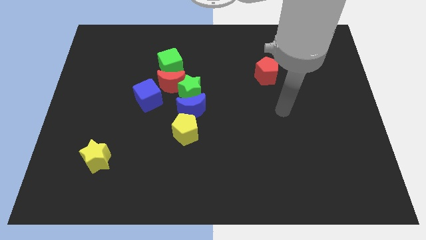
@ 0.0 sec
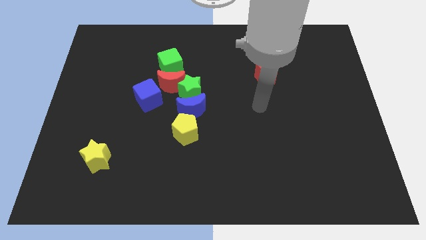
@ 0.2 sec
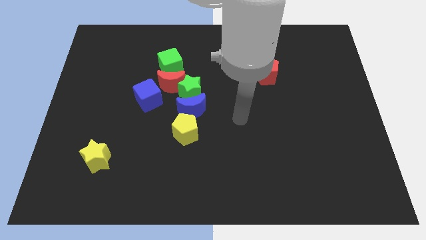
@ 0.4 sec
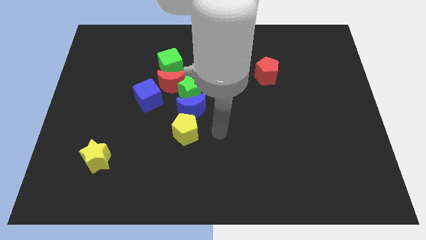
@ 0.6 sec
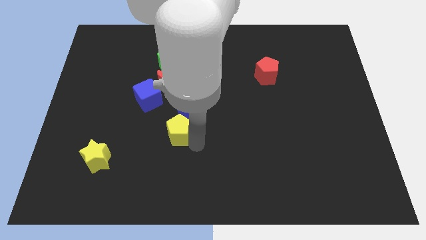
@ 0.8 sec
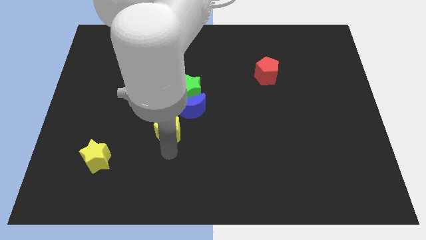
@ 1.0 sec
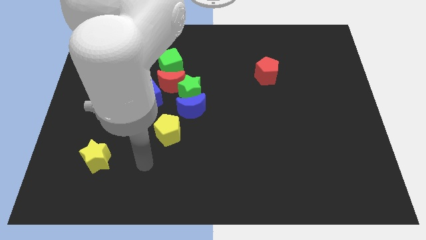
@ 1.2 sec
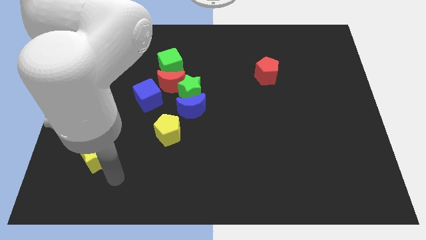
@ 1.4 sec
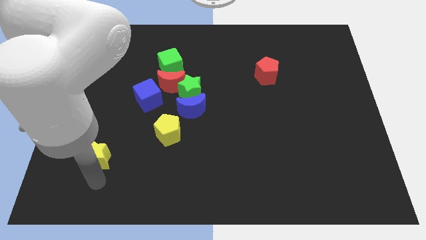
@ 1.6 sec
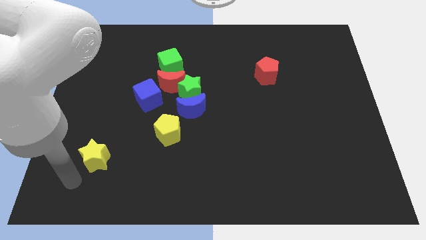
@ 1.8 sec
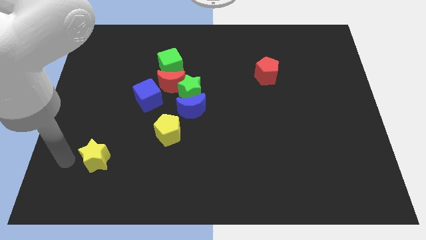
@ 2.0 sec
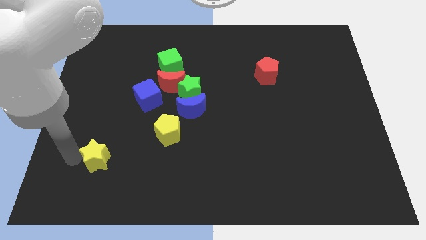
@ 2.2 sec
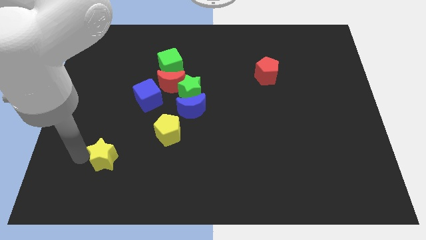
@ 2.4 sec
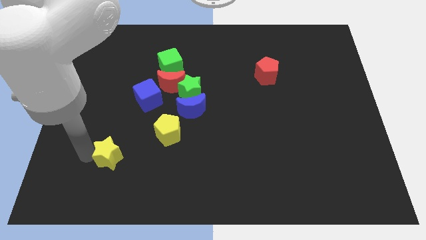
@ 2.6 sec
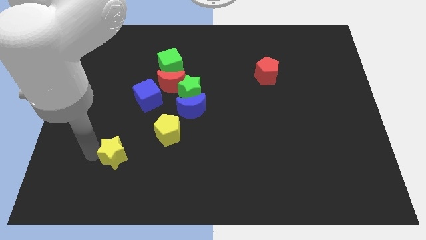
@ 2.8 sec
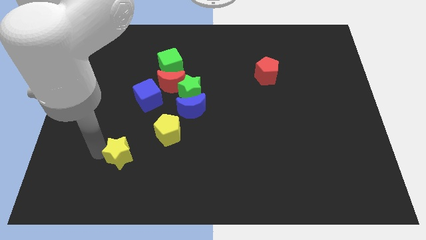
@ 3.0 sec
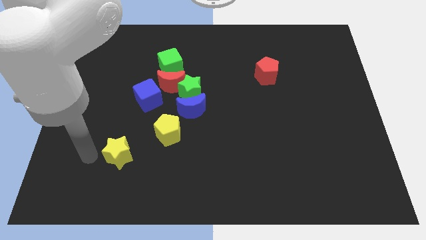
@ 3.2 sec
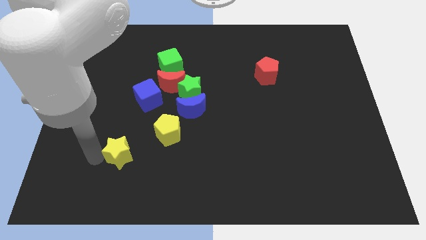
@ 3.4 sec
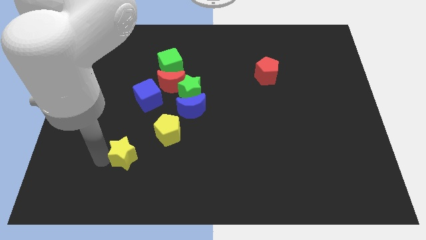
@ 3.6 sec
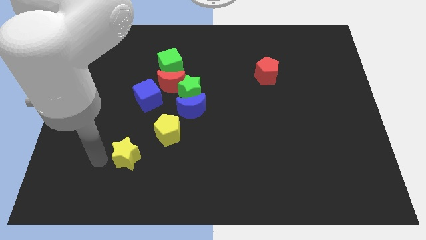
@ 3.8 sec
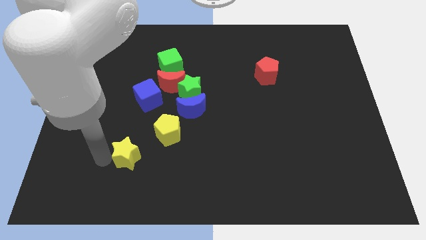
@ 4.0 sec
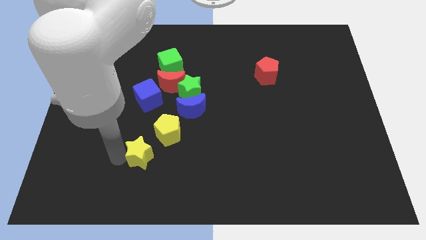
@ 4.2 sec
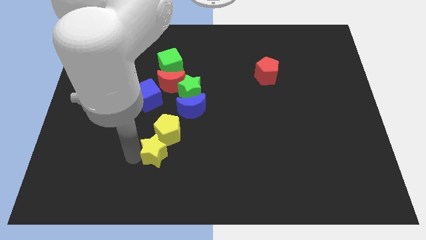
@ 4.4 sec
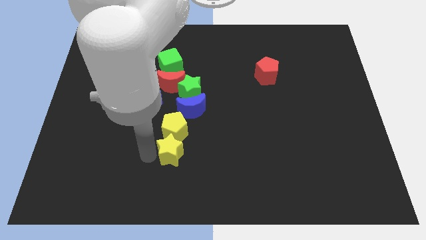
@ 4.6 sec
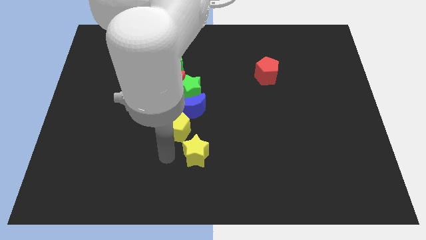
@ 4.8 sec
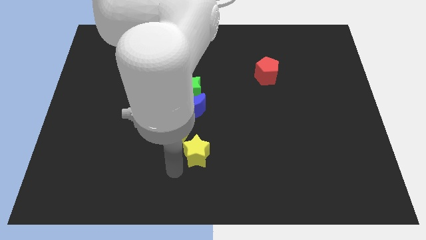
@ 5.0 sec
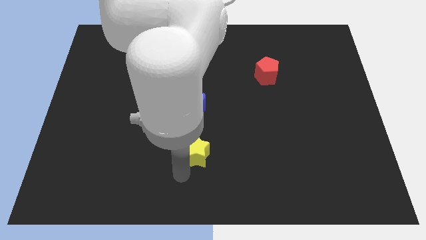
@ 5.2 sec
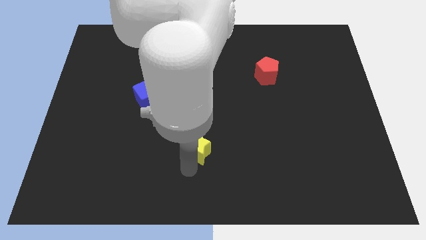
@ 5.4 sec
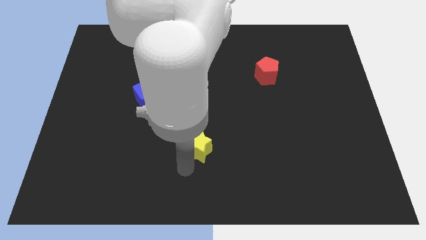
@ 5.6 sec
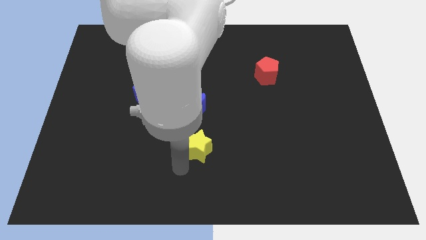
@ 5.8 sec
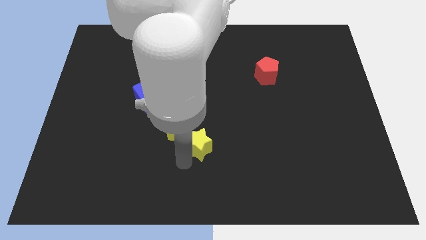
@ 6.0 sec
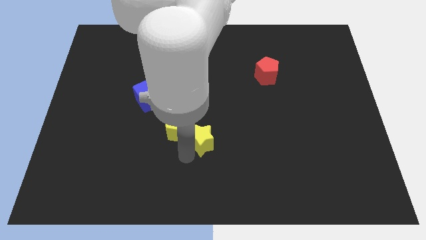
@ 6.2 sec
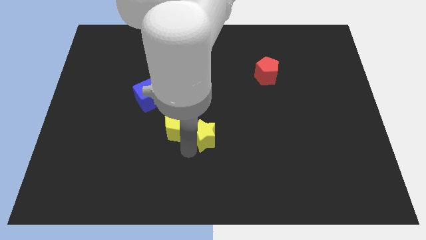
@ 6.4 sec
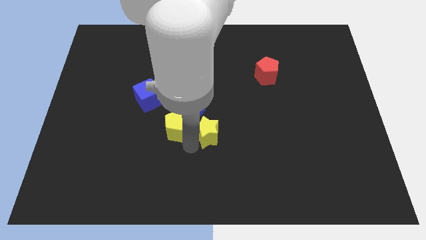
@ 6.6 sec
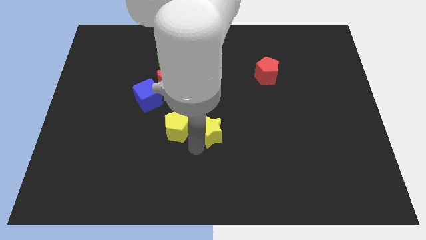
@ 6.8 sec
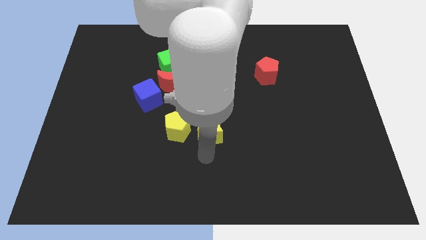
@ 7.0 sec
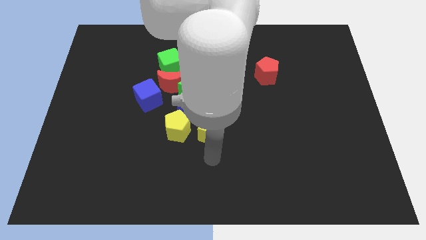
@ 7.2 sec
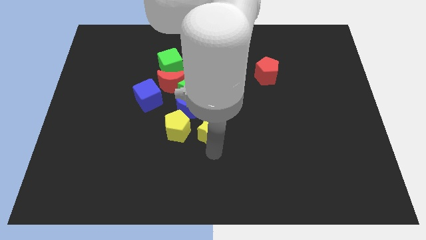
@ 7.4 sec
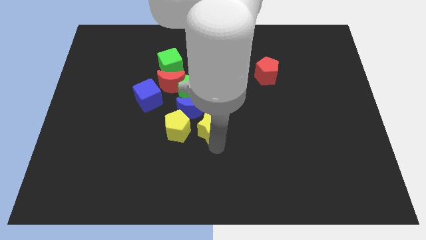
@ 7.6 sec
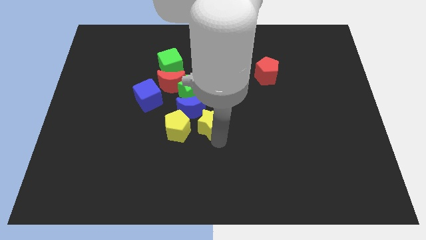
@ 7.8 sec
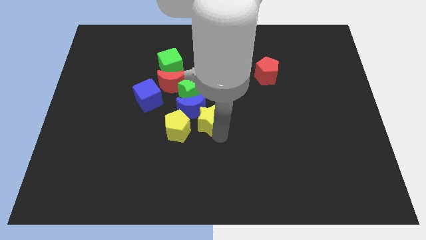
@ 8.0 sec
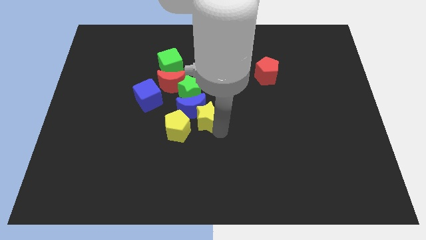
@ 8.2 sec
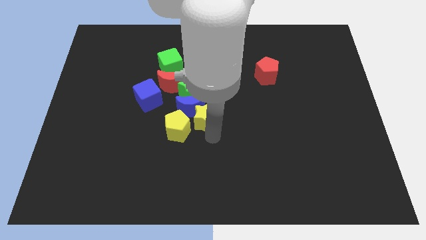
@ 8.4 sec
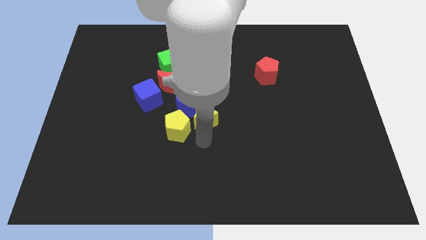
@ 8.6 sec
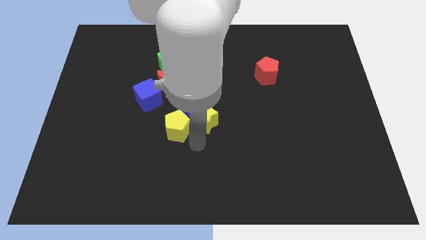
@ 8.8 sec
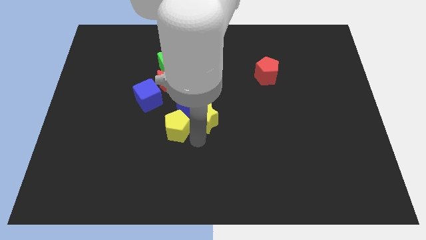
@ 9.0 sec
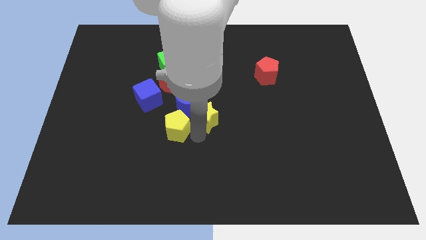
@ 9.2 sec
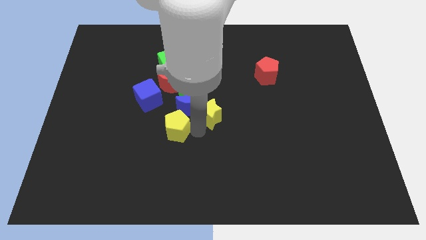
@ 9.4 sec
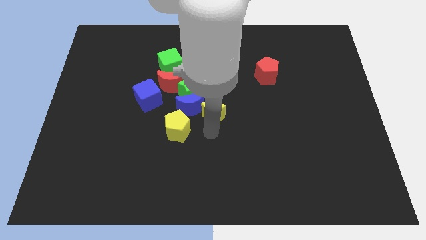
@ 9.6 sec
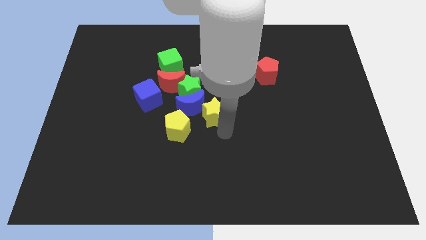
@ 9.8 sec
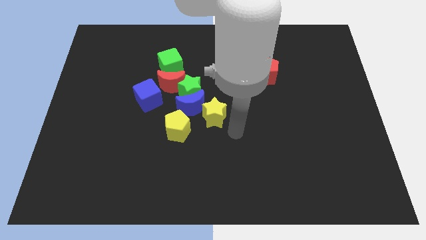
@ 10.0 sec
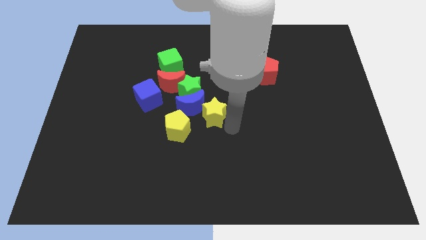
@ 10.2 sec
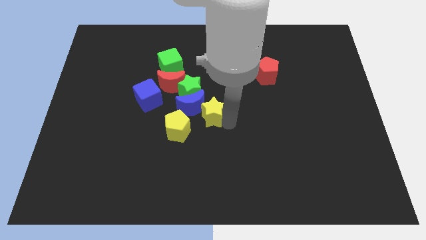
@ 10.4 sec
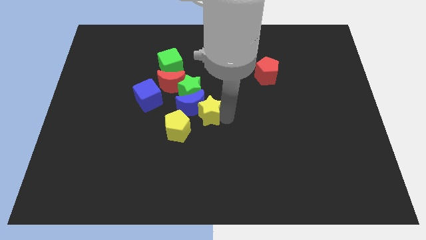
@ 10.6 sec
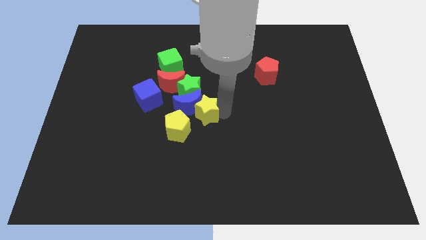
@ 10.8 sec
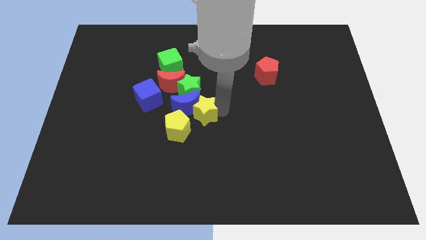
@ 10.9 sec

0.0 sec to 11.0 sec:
move the yellow star to the right of the blue cube

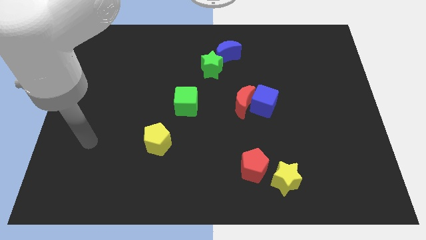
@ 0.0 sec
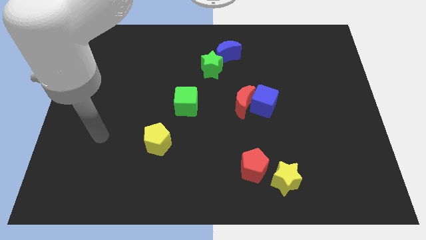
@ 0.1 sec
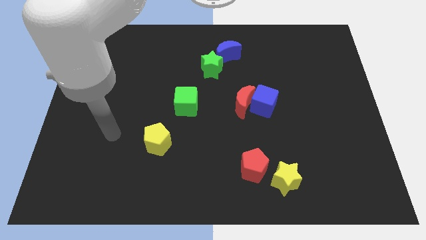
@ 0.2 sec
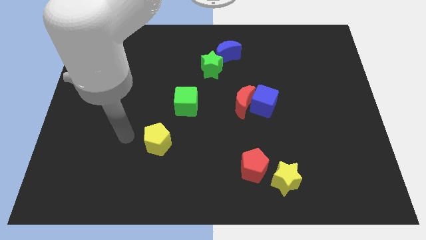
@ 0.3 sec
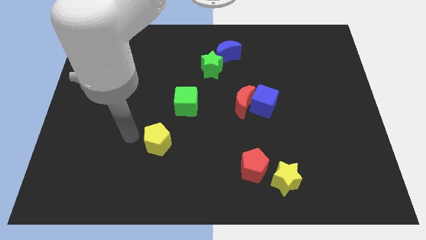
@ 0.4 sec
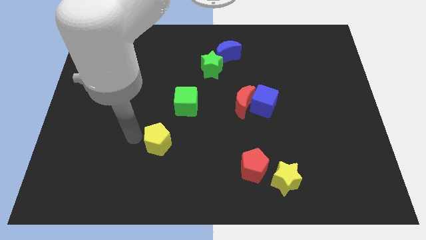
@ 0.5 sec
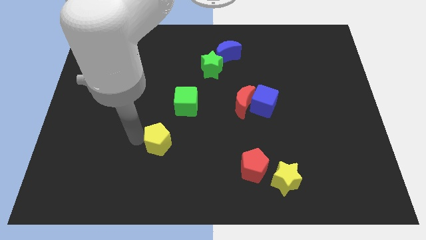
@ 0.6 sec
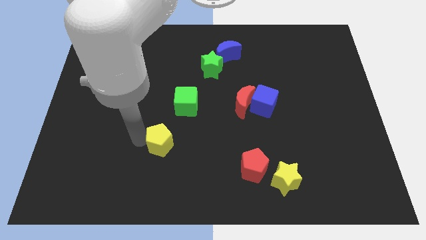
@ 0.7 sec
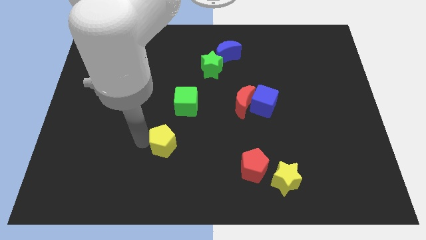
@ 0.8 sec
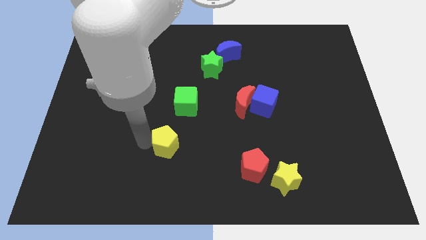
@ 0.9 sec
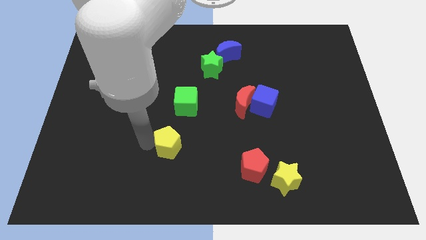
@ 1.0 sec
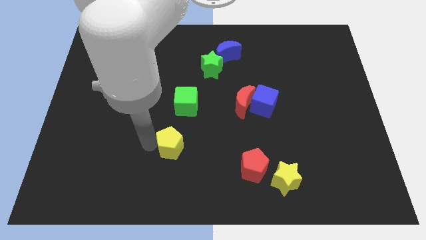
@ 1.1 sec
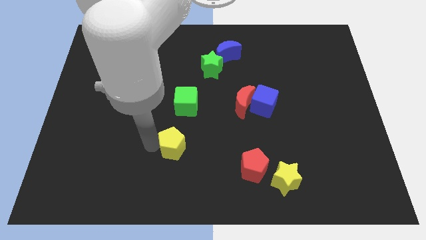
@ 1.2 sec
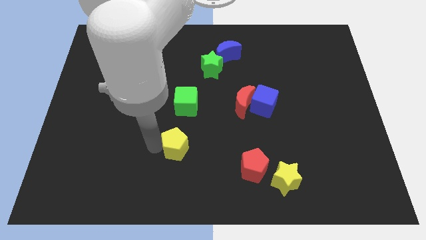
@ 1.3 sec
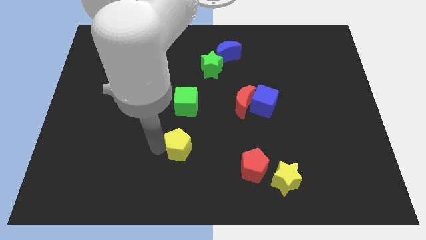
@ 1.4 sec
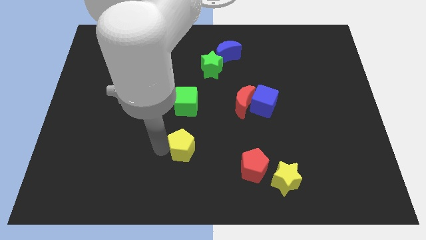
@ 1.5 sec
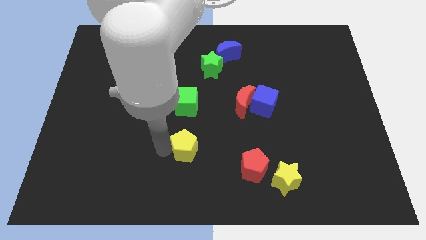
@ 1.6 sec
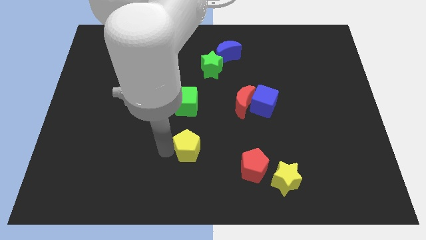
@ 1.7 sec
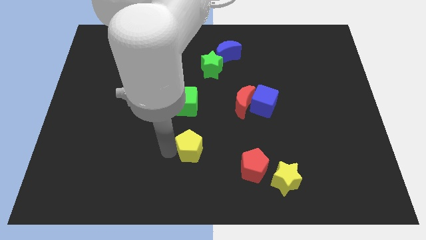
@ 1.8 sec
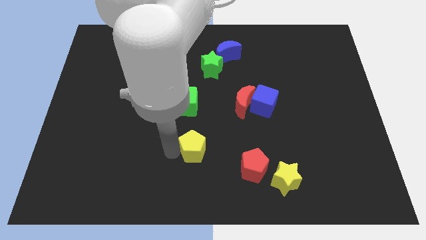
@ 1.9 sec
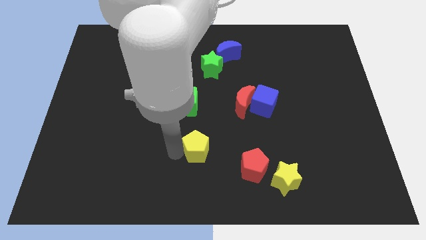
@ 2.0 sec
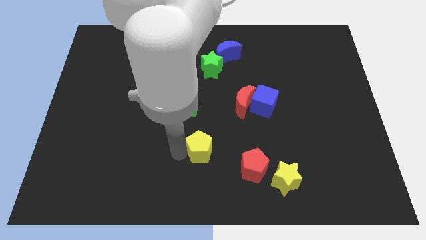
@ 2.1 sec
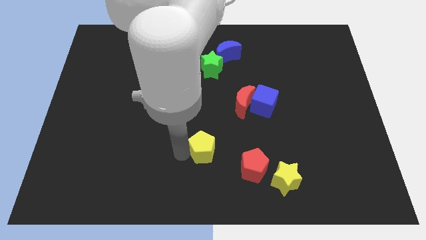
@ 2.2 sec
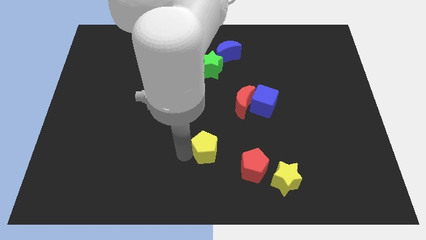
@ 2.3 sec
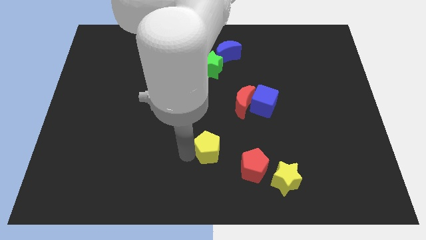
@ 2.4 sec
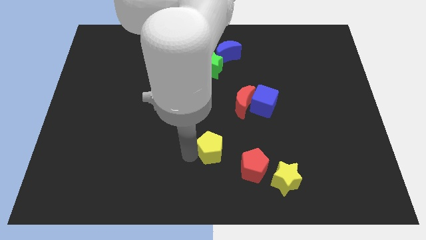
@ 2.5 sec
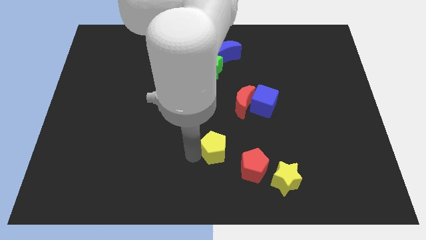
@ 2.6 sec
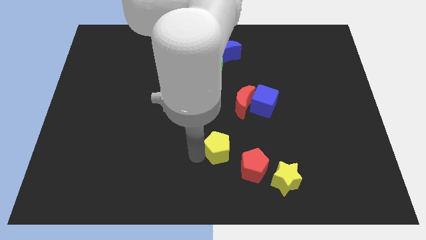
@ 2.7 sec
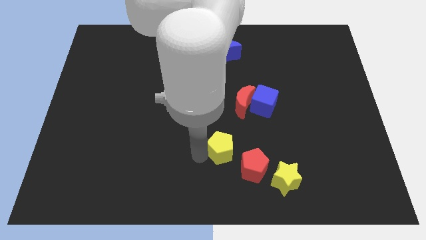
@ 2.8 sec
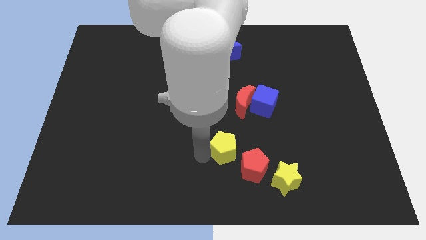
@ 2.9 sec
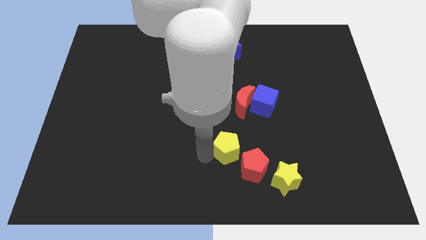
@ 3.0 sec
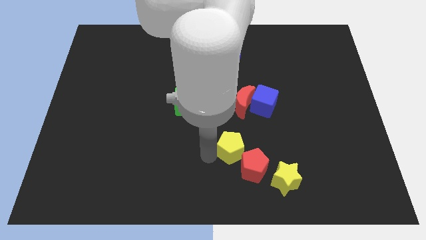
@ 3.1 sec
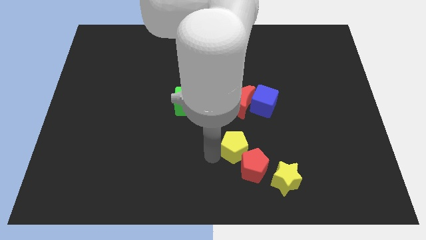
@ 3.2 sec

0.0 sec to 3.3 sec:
slide the yellow pentagon to the top left of the yellow star
